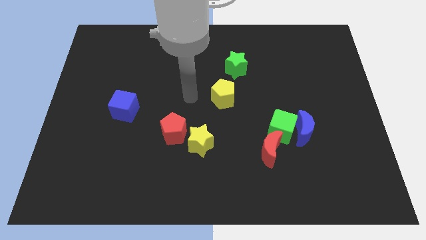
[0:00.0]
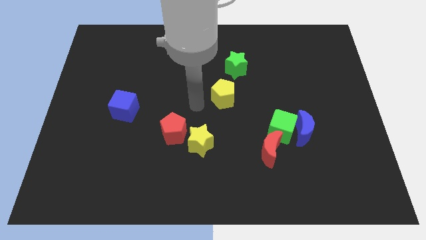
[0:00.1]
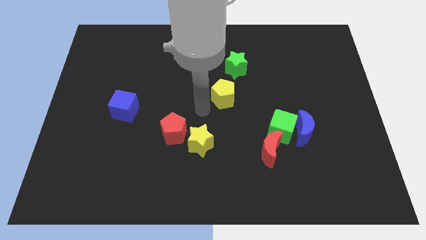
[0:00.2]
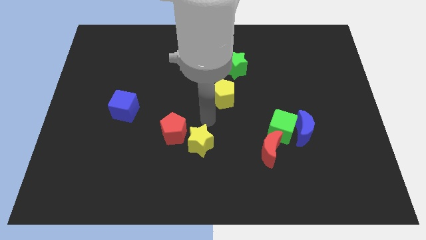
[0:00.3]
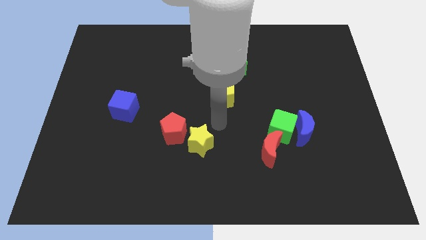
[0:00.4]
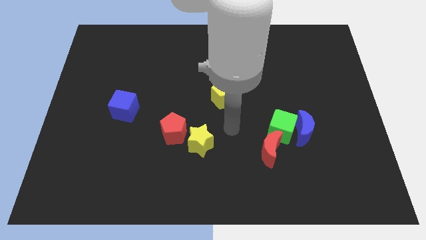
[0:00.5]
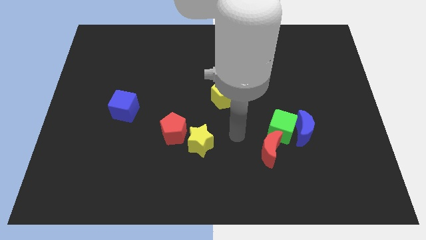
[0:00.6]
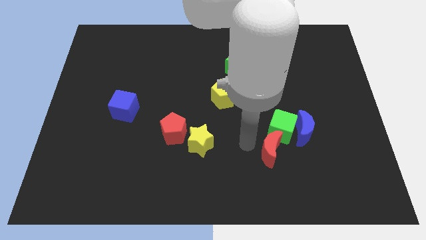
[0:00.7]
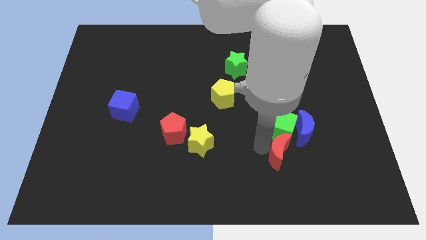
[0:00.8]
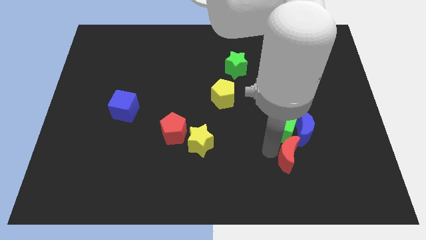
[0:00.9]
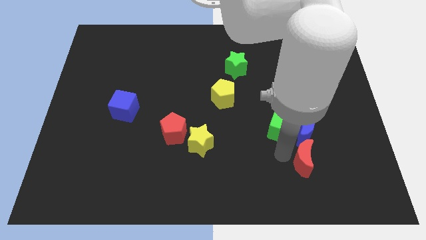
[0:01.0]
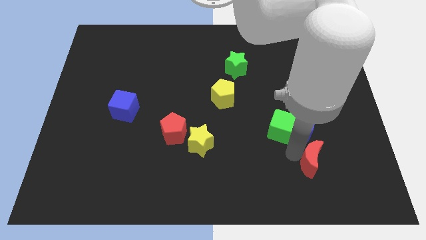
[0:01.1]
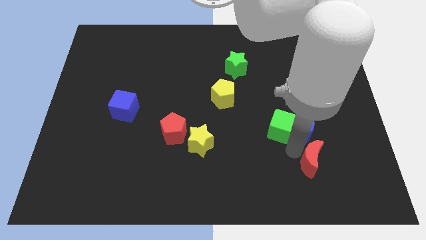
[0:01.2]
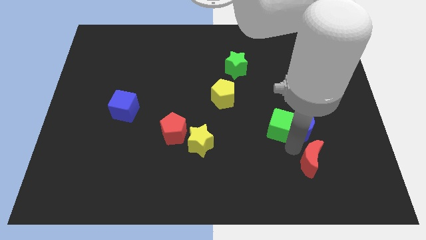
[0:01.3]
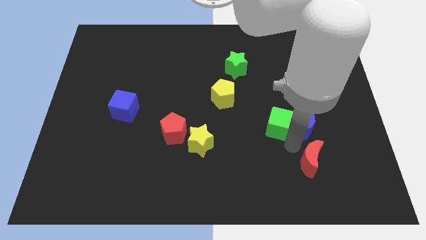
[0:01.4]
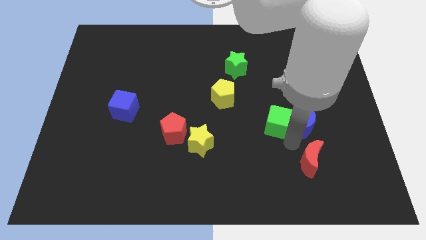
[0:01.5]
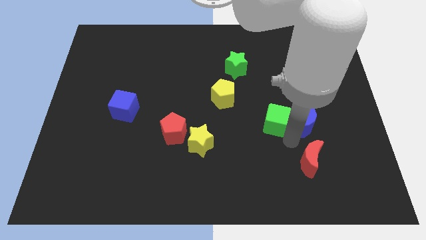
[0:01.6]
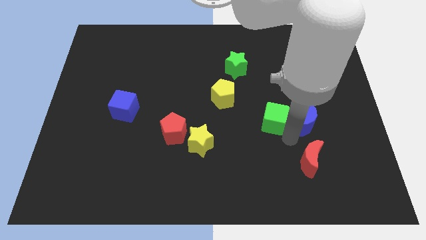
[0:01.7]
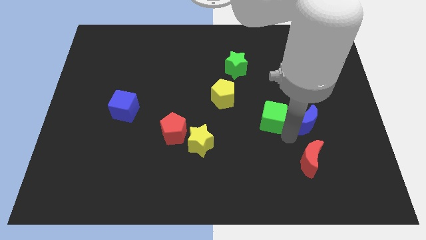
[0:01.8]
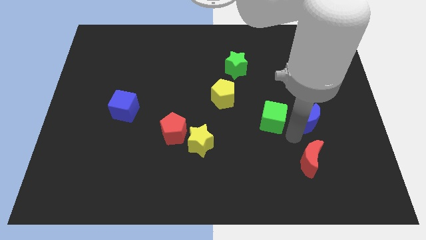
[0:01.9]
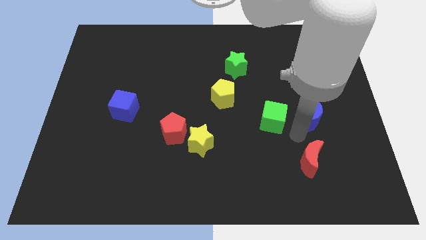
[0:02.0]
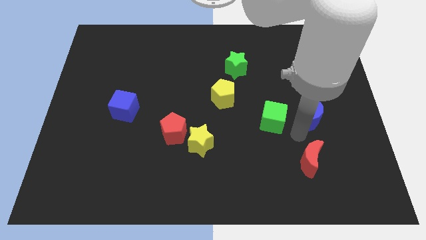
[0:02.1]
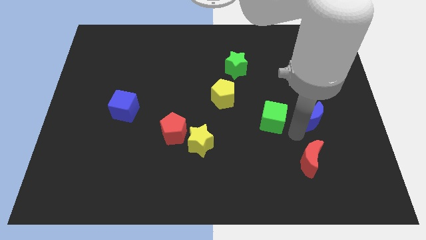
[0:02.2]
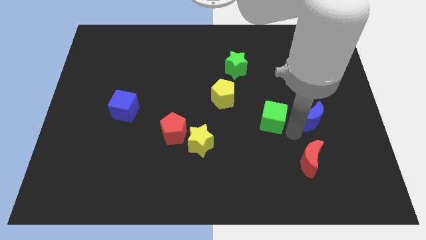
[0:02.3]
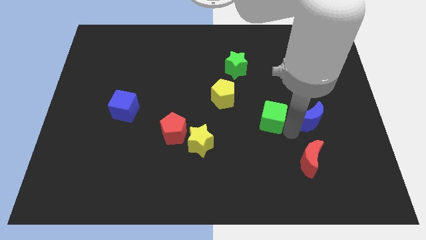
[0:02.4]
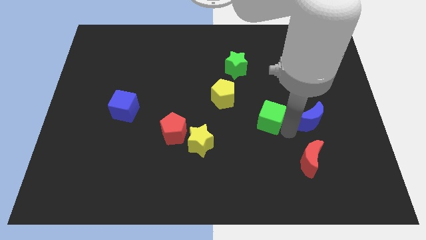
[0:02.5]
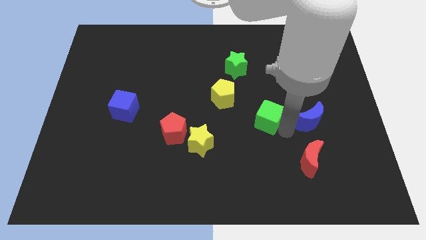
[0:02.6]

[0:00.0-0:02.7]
separate the green cube from the blue moon and red moon

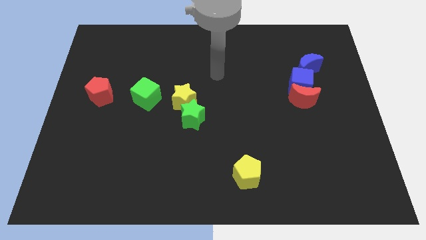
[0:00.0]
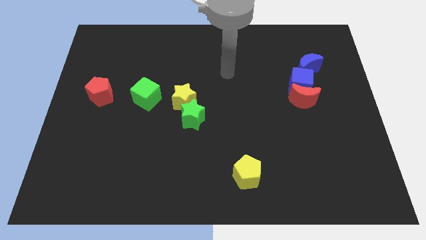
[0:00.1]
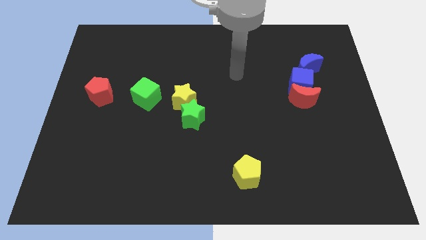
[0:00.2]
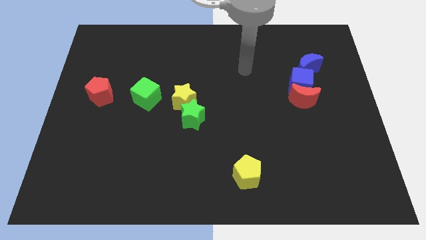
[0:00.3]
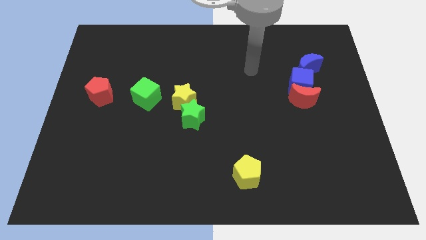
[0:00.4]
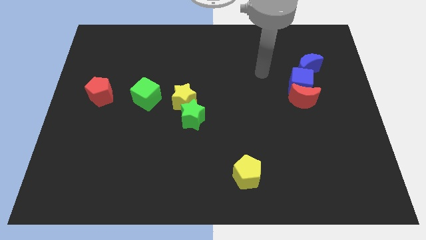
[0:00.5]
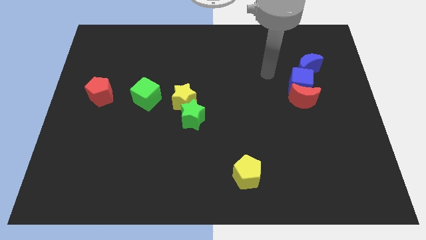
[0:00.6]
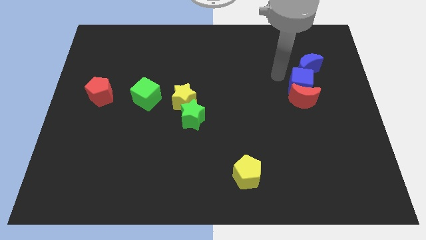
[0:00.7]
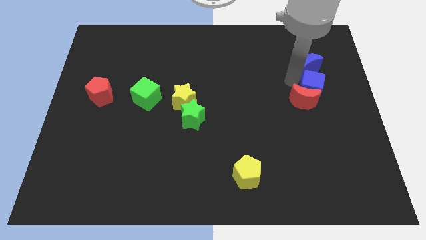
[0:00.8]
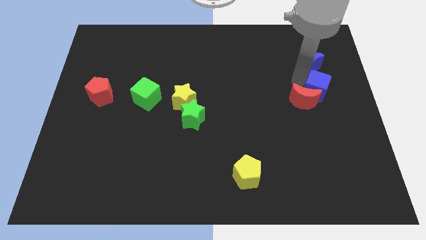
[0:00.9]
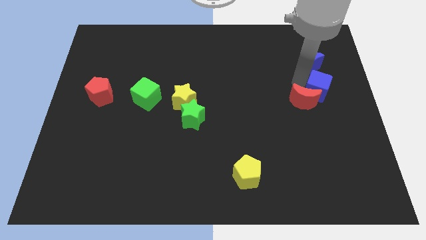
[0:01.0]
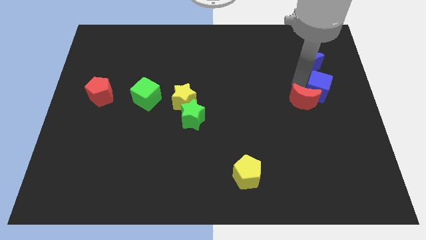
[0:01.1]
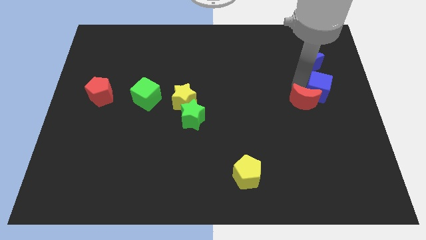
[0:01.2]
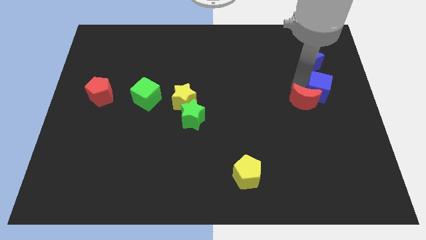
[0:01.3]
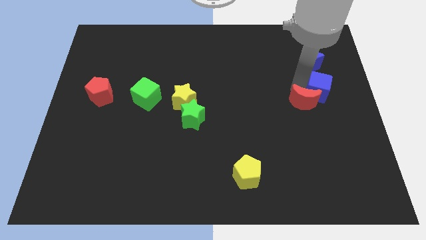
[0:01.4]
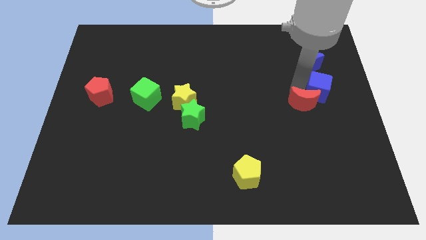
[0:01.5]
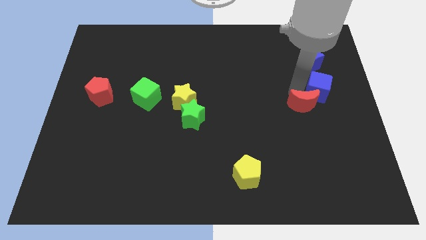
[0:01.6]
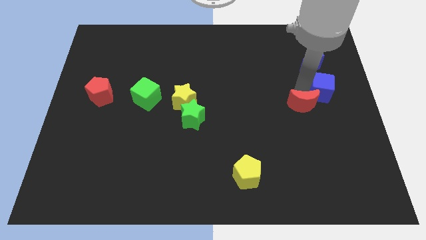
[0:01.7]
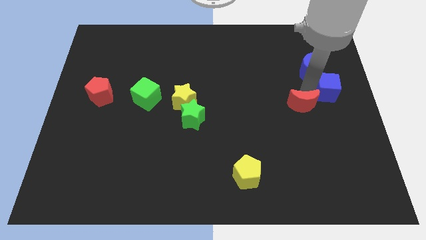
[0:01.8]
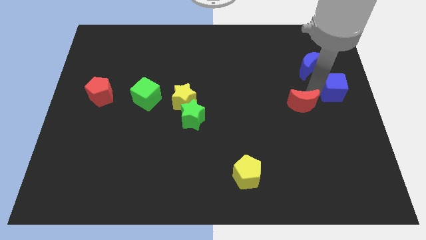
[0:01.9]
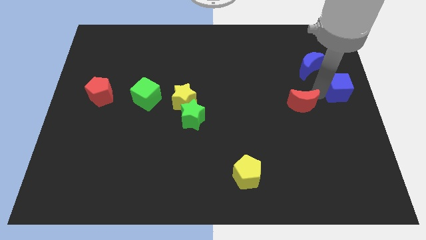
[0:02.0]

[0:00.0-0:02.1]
separate the red moon from the blue cube

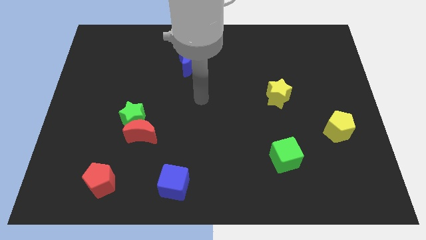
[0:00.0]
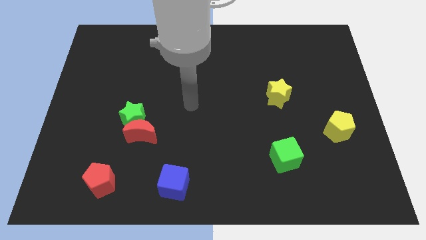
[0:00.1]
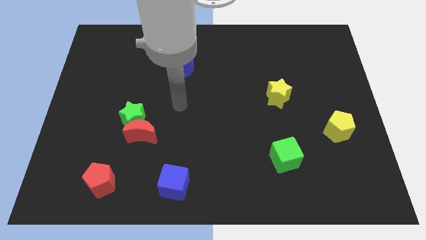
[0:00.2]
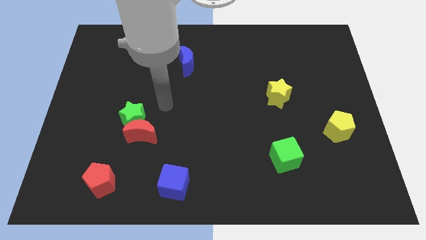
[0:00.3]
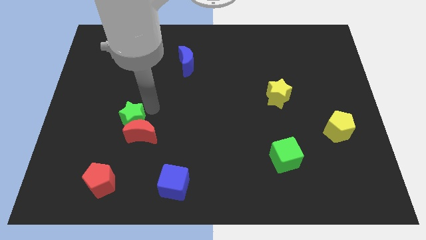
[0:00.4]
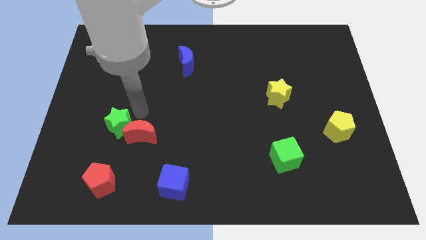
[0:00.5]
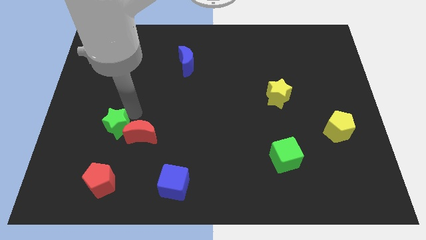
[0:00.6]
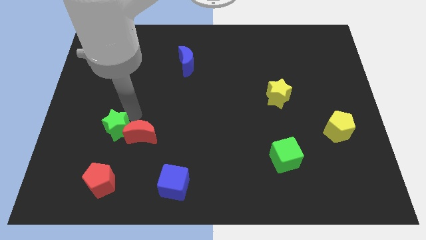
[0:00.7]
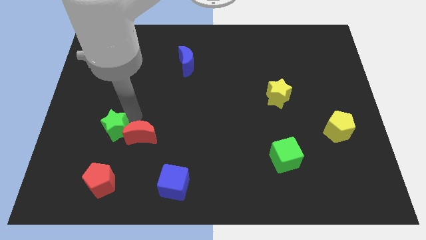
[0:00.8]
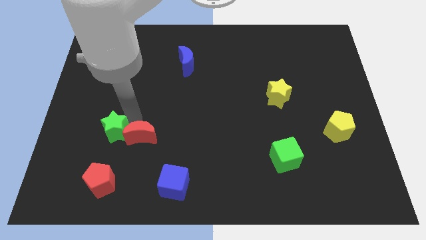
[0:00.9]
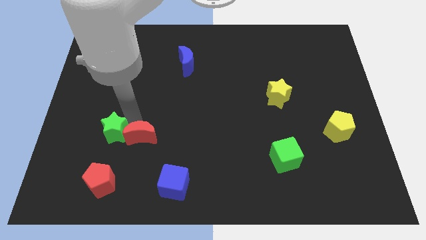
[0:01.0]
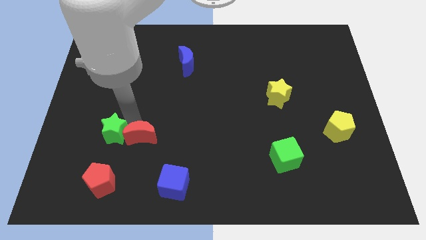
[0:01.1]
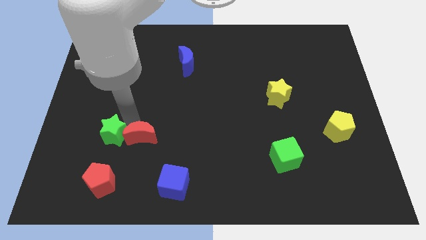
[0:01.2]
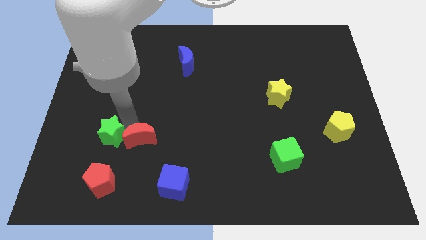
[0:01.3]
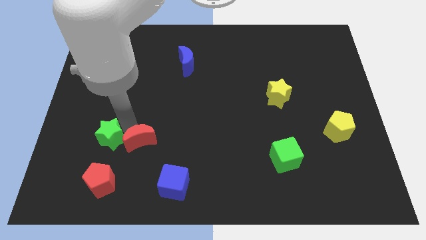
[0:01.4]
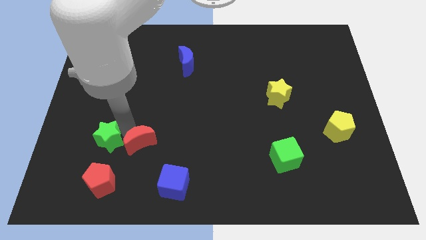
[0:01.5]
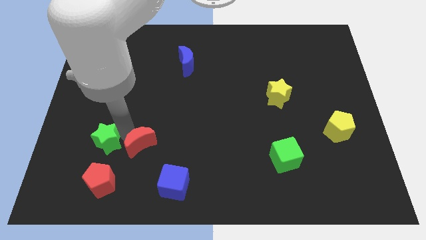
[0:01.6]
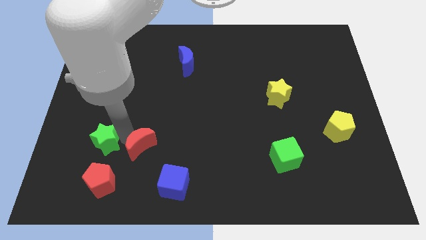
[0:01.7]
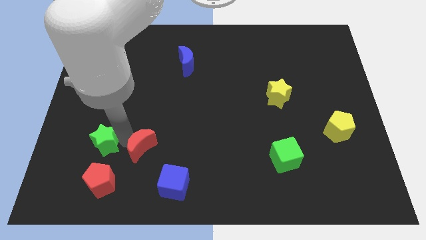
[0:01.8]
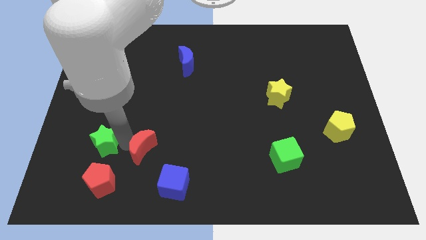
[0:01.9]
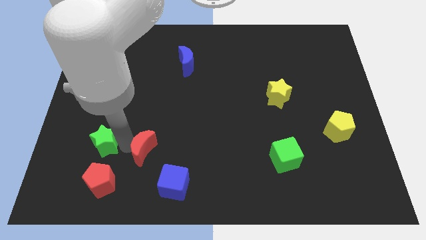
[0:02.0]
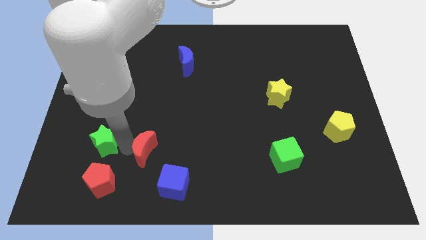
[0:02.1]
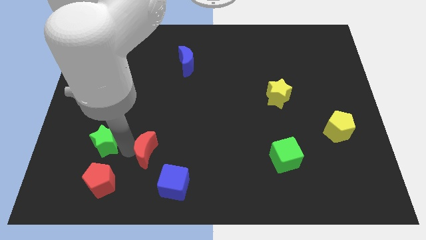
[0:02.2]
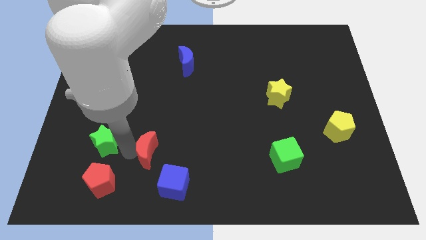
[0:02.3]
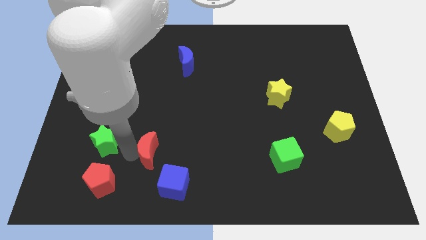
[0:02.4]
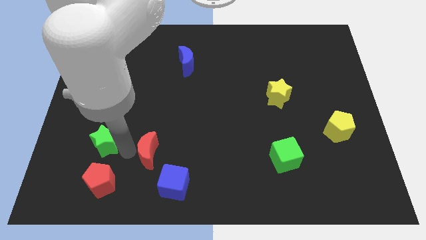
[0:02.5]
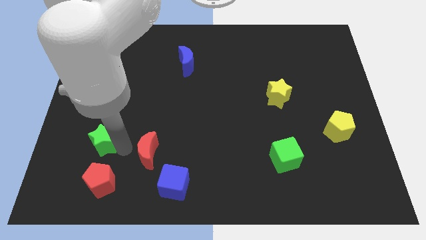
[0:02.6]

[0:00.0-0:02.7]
move the red moon away from the green star

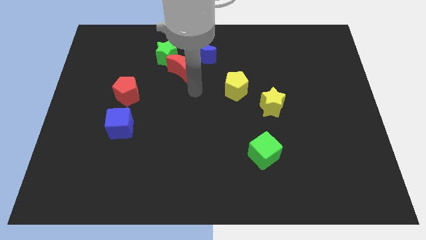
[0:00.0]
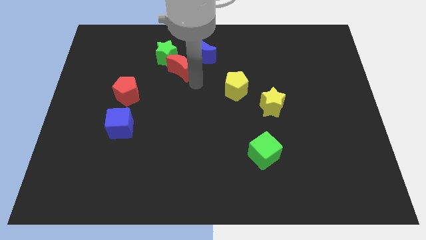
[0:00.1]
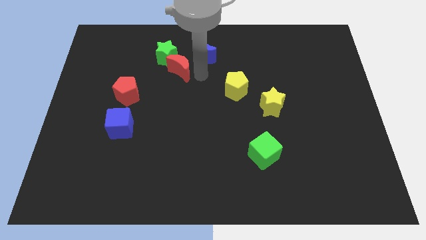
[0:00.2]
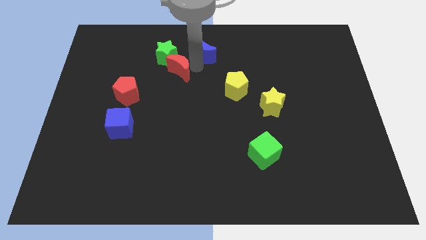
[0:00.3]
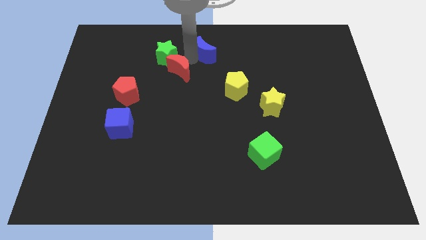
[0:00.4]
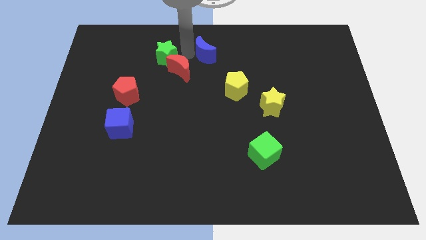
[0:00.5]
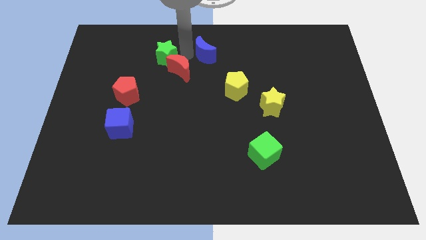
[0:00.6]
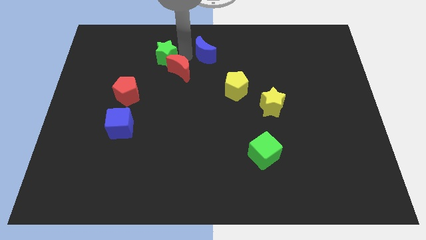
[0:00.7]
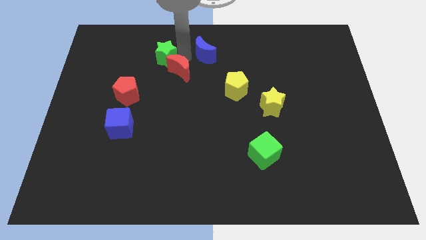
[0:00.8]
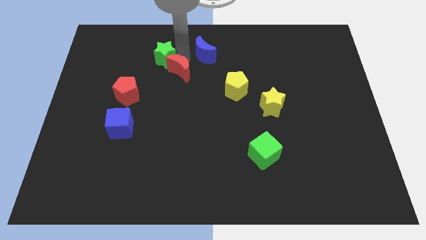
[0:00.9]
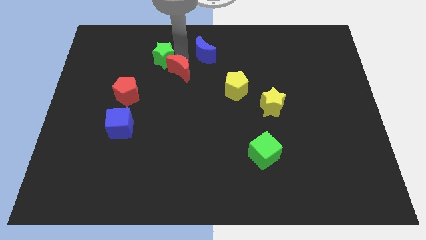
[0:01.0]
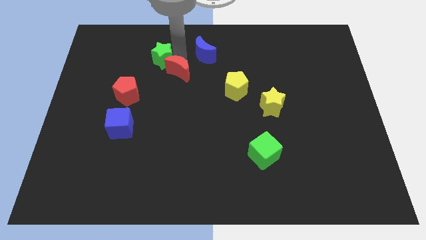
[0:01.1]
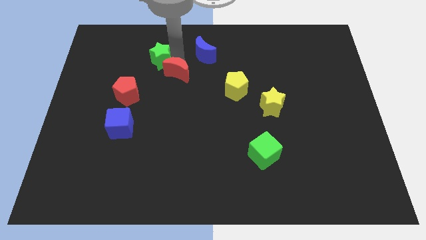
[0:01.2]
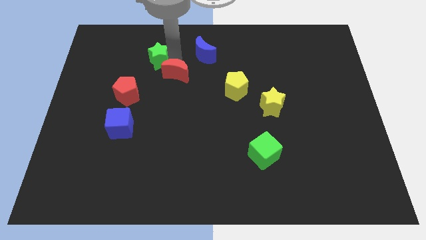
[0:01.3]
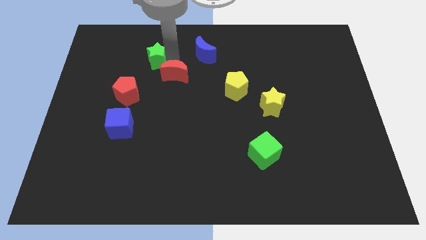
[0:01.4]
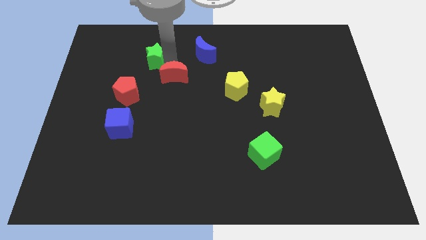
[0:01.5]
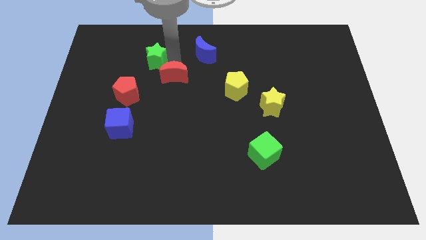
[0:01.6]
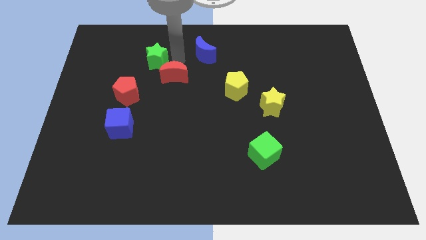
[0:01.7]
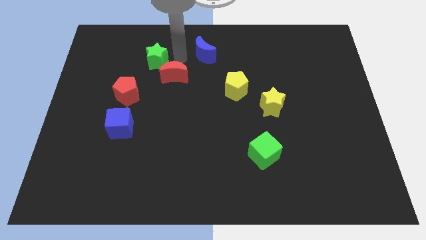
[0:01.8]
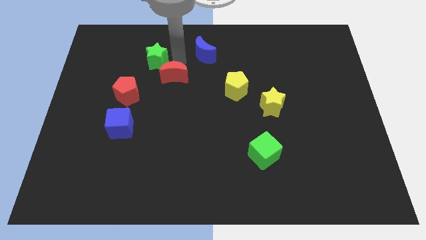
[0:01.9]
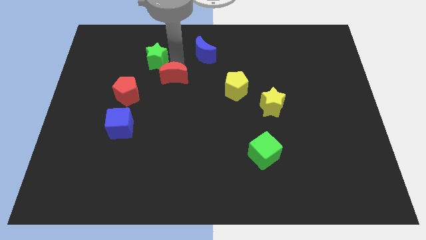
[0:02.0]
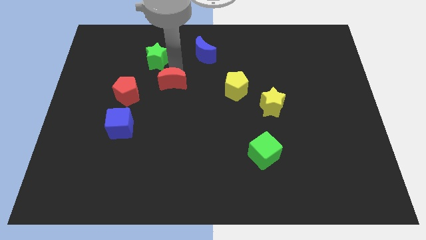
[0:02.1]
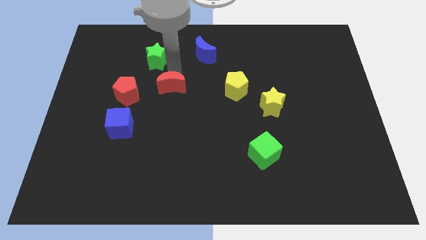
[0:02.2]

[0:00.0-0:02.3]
pull the red moon apart from the green star and blue moon
